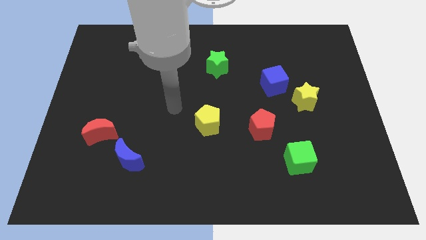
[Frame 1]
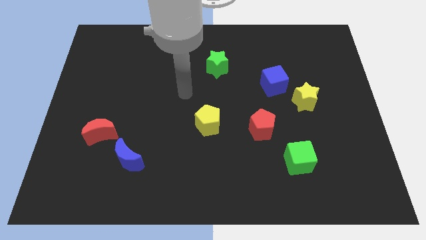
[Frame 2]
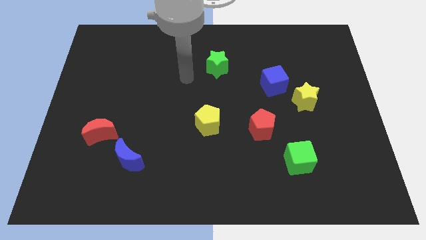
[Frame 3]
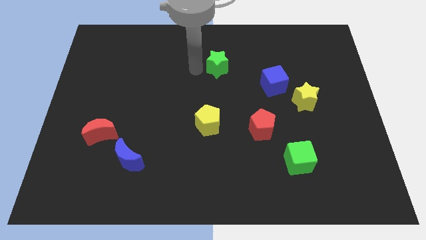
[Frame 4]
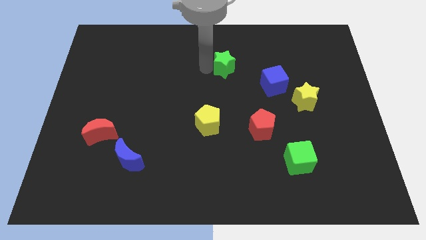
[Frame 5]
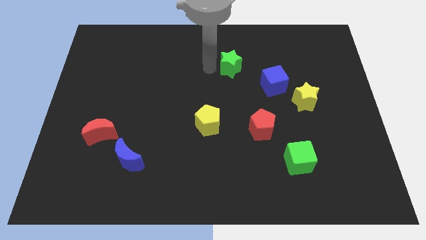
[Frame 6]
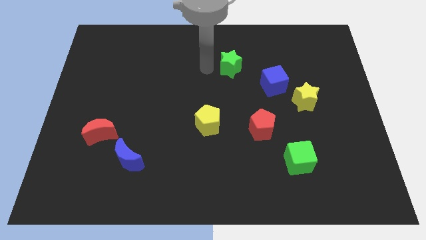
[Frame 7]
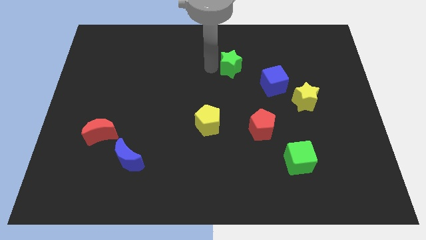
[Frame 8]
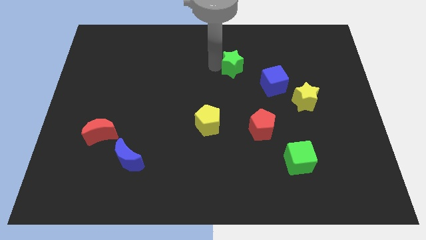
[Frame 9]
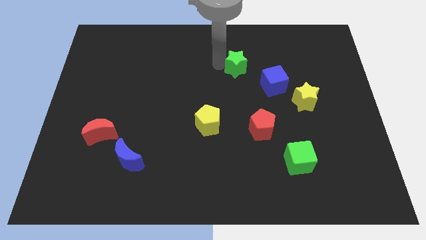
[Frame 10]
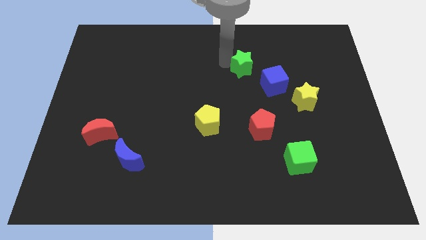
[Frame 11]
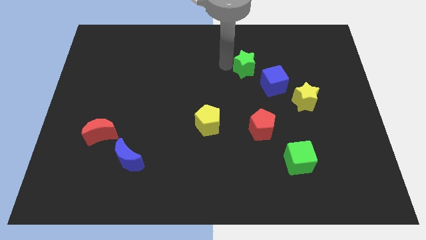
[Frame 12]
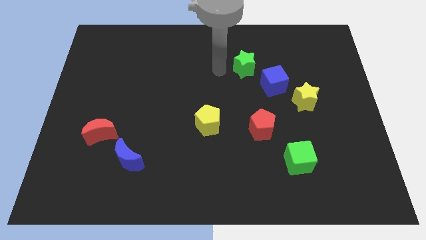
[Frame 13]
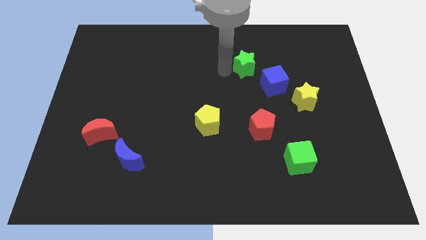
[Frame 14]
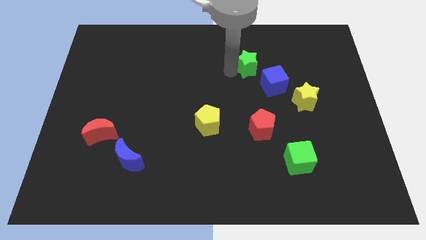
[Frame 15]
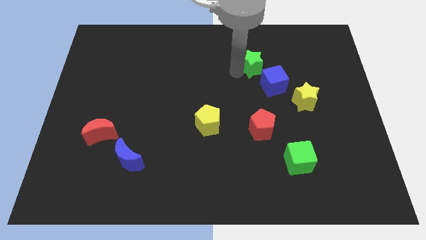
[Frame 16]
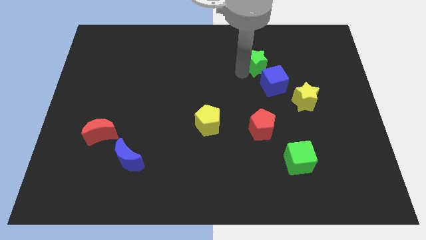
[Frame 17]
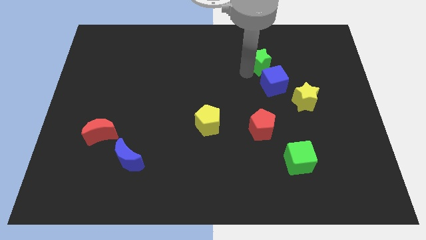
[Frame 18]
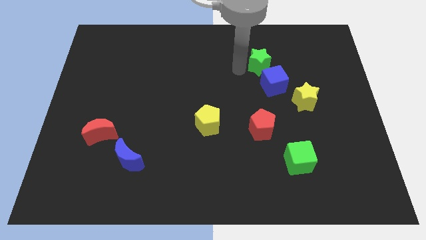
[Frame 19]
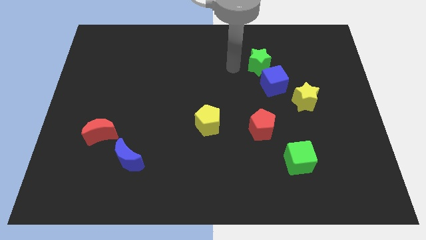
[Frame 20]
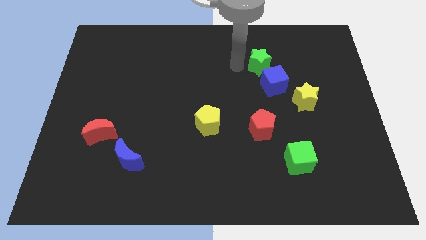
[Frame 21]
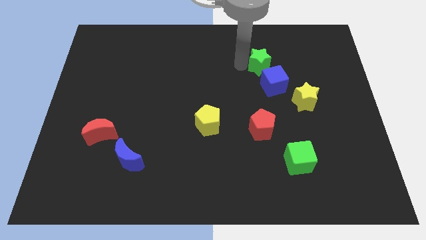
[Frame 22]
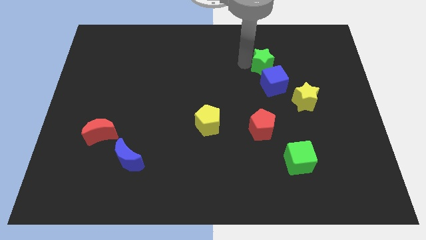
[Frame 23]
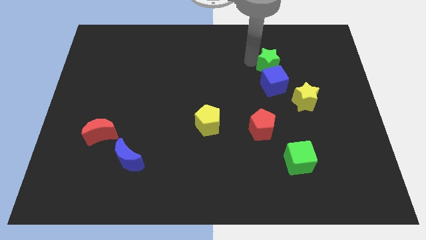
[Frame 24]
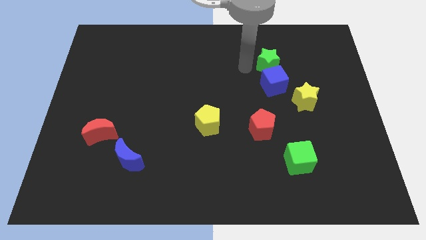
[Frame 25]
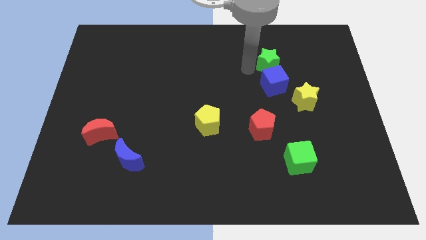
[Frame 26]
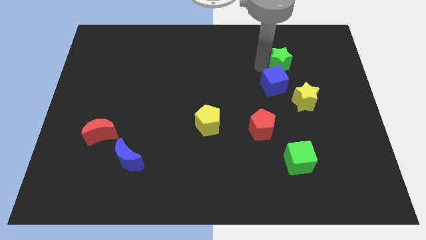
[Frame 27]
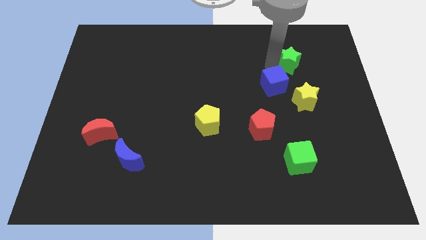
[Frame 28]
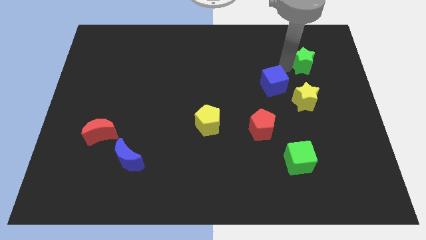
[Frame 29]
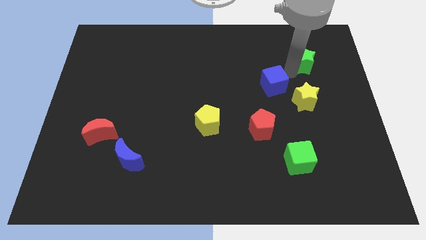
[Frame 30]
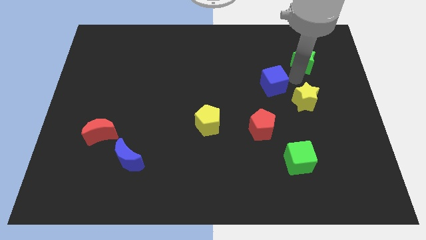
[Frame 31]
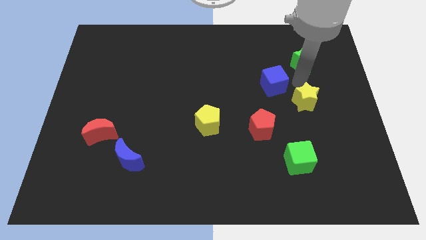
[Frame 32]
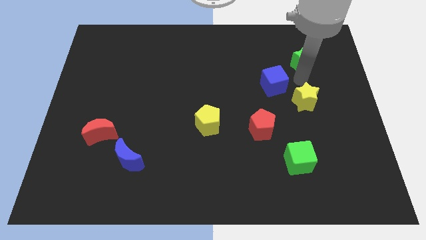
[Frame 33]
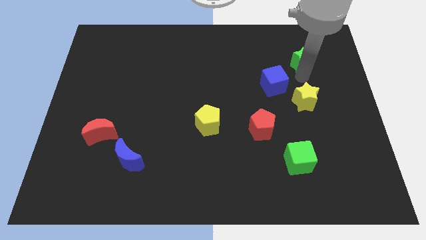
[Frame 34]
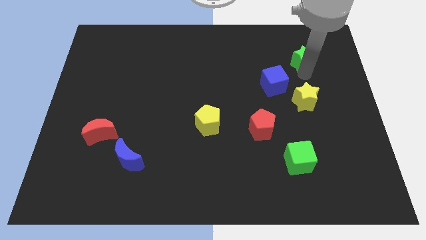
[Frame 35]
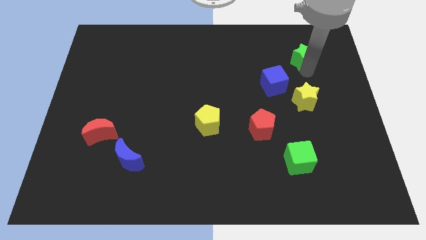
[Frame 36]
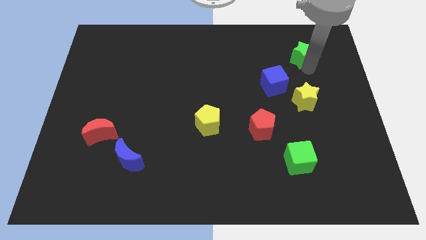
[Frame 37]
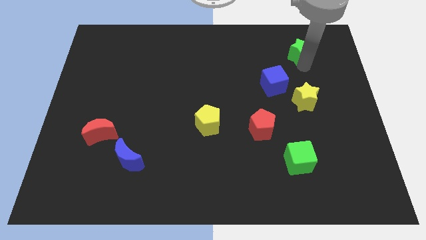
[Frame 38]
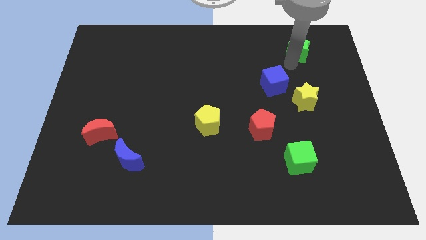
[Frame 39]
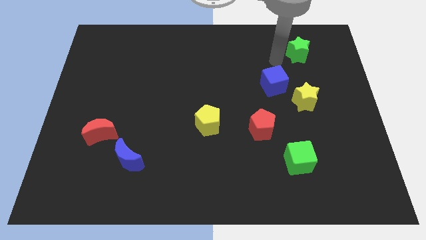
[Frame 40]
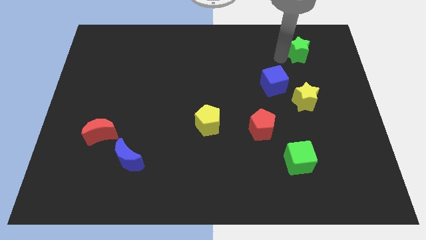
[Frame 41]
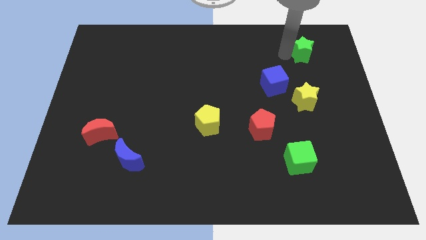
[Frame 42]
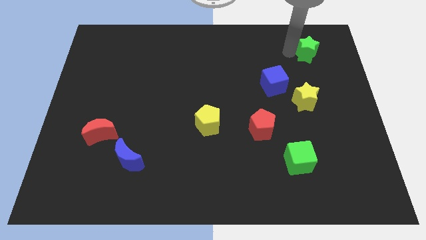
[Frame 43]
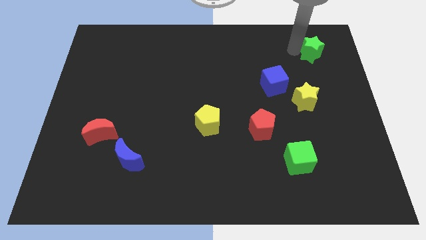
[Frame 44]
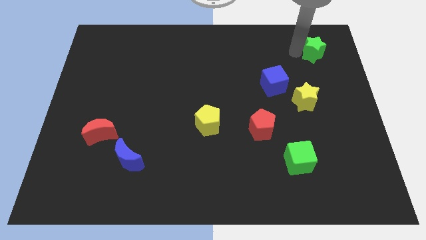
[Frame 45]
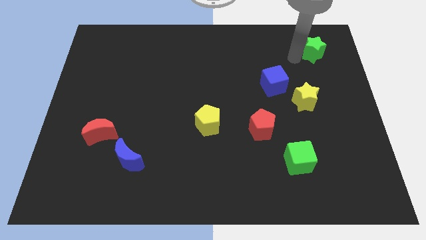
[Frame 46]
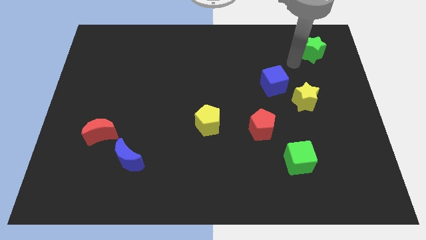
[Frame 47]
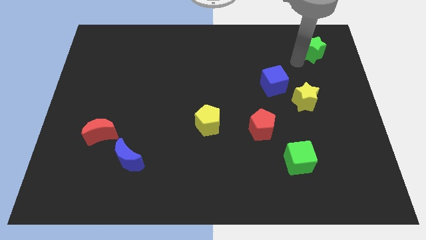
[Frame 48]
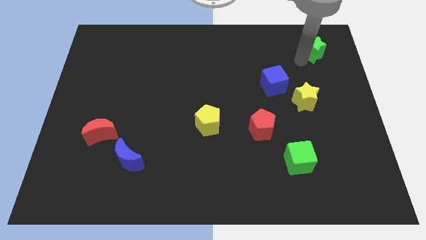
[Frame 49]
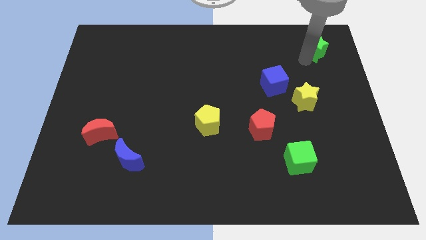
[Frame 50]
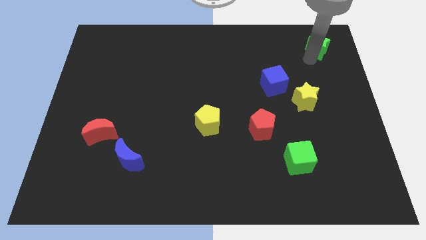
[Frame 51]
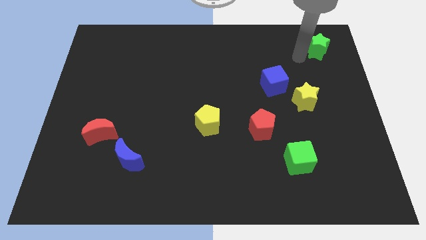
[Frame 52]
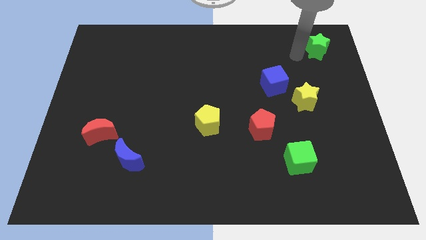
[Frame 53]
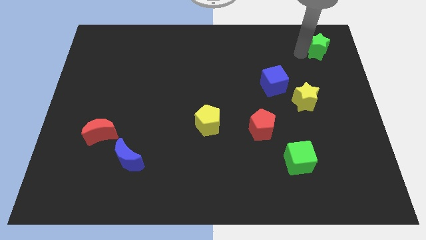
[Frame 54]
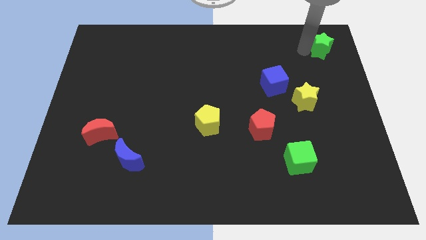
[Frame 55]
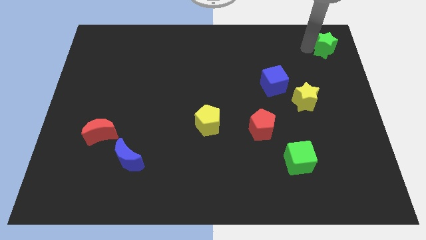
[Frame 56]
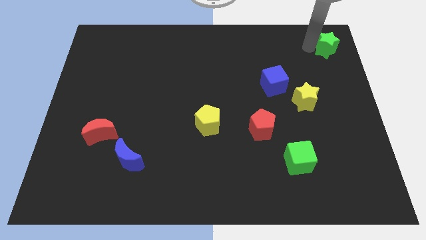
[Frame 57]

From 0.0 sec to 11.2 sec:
put the green star to the upper right corner
